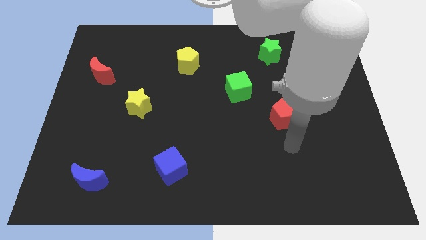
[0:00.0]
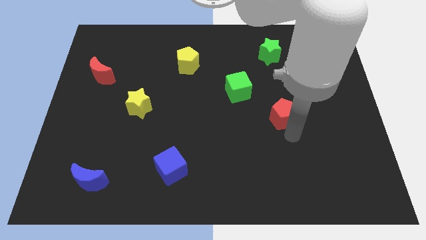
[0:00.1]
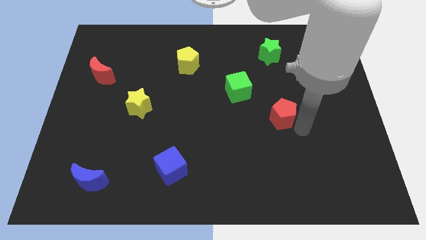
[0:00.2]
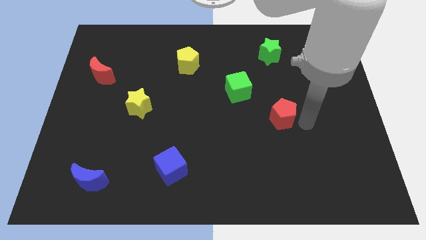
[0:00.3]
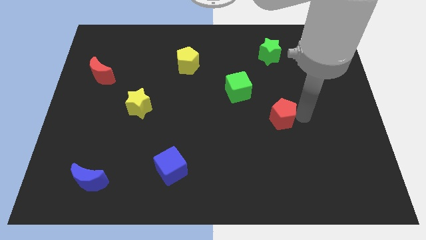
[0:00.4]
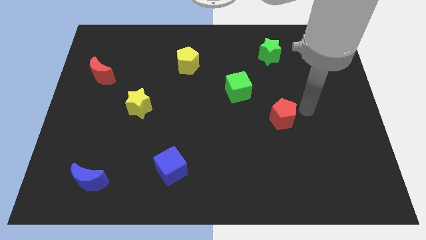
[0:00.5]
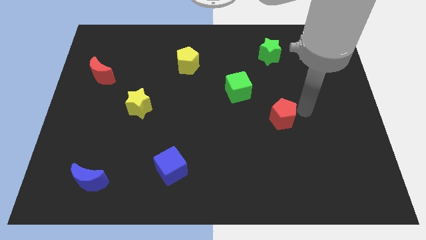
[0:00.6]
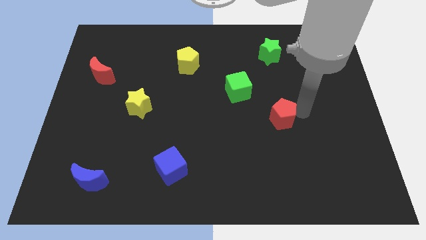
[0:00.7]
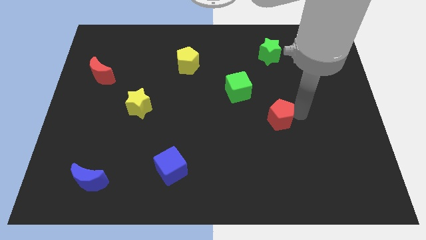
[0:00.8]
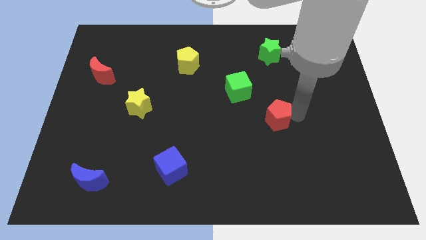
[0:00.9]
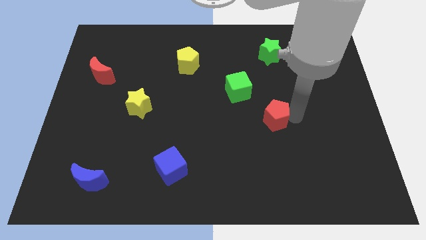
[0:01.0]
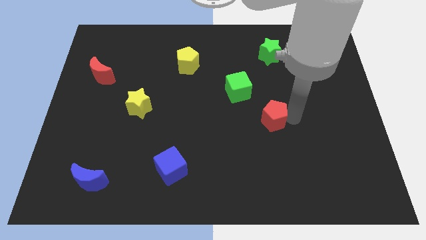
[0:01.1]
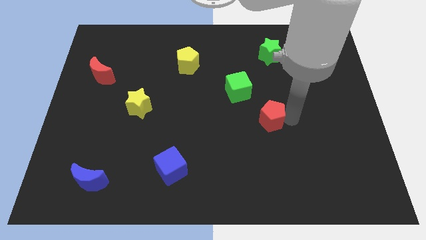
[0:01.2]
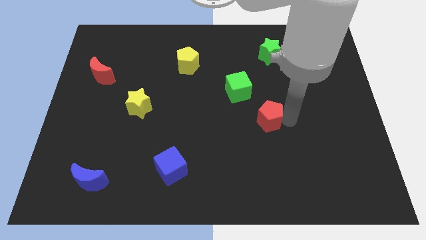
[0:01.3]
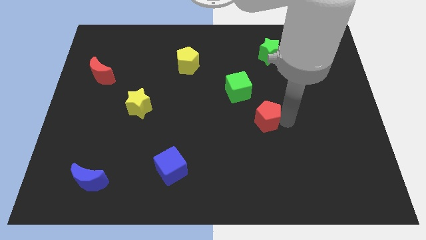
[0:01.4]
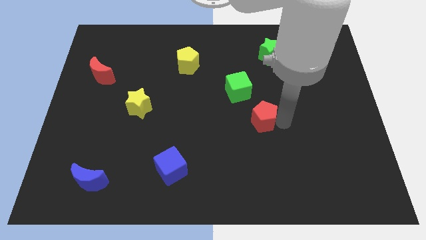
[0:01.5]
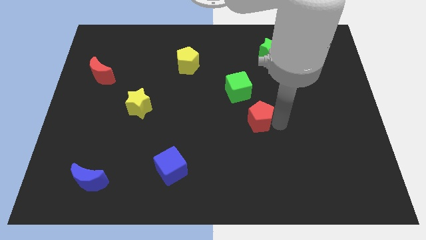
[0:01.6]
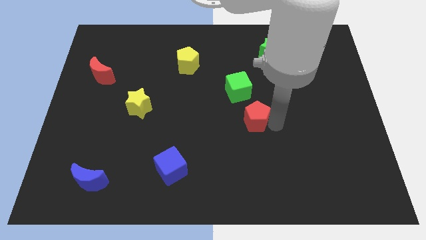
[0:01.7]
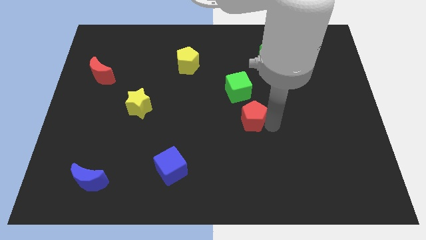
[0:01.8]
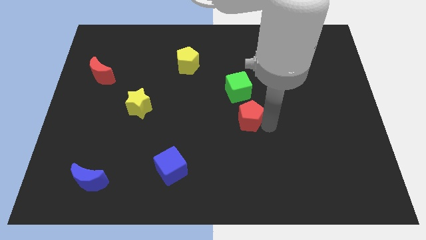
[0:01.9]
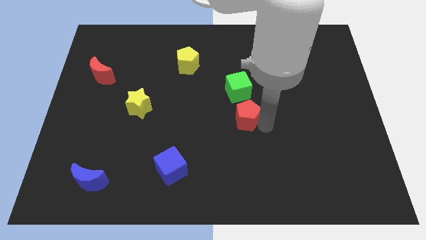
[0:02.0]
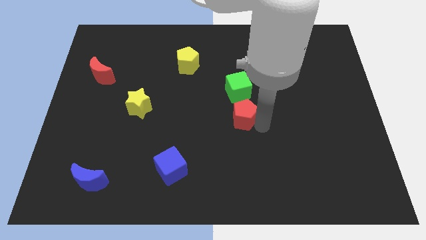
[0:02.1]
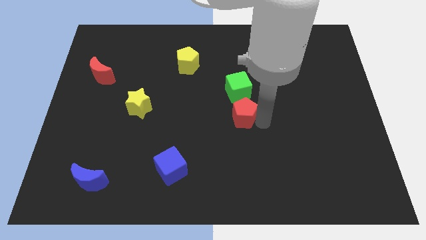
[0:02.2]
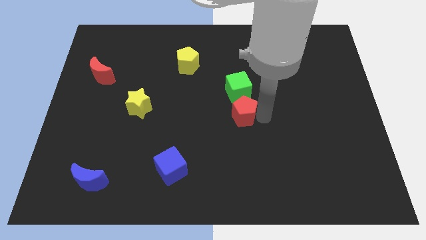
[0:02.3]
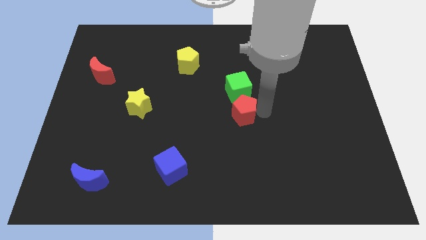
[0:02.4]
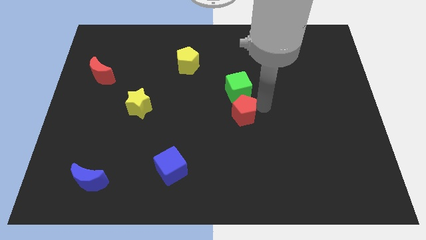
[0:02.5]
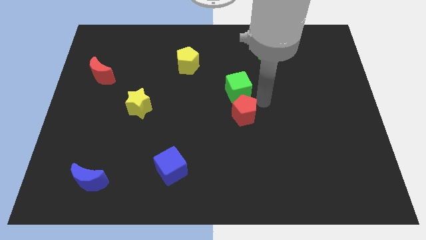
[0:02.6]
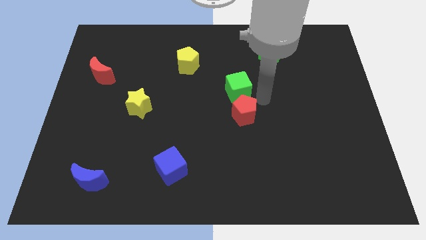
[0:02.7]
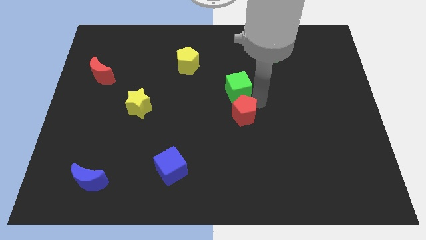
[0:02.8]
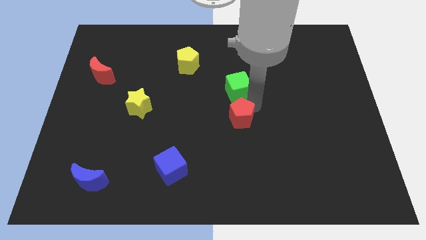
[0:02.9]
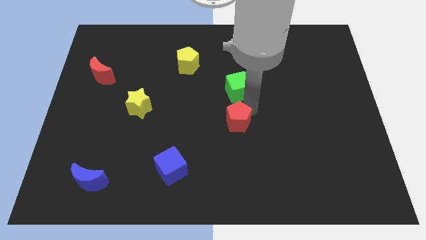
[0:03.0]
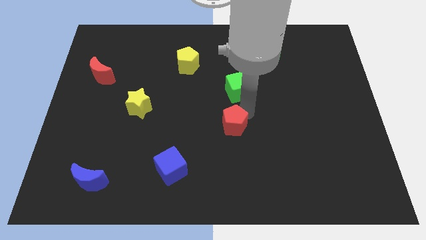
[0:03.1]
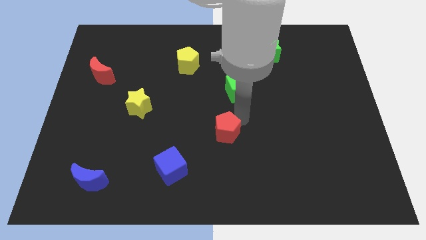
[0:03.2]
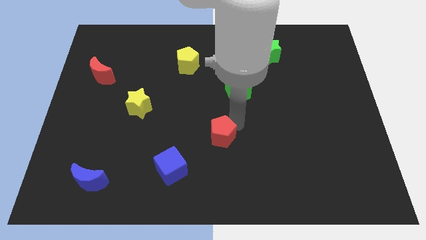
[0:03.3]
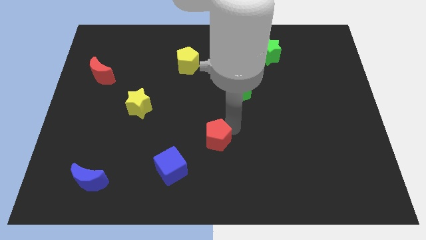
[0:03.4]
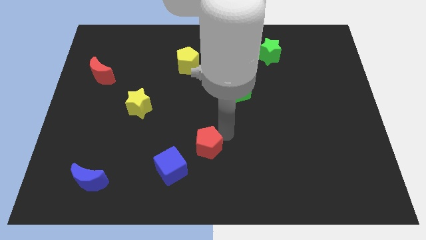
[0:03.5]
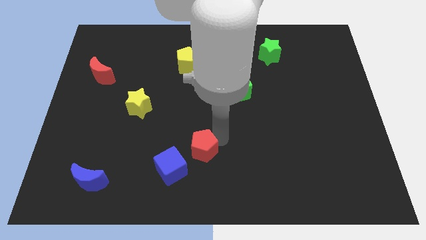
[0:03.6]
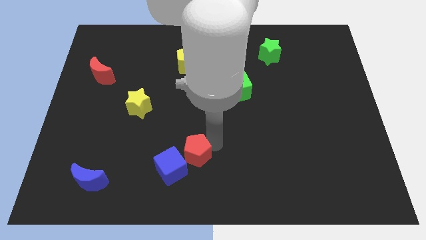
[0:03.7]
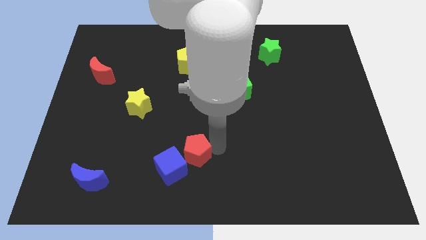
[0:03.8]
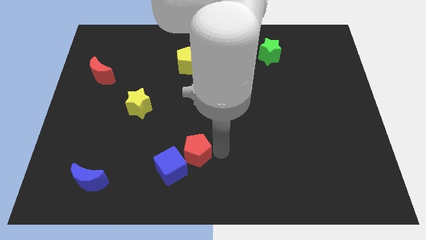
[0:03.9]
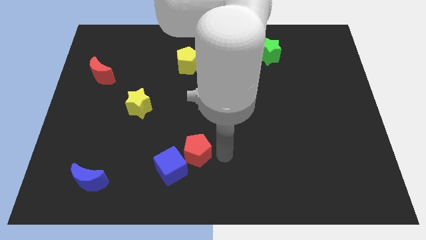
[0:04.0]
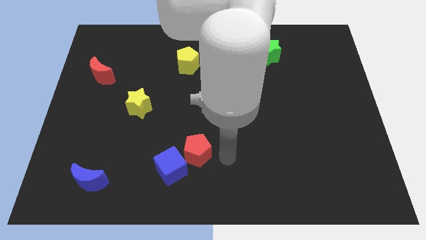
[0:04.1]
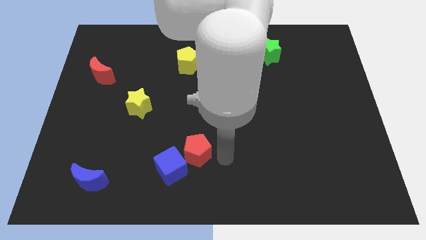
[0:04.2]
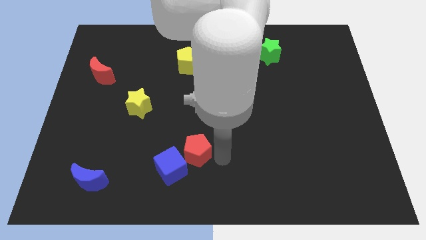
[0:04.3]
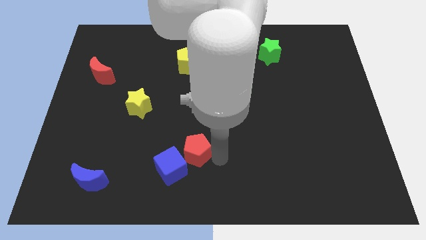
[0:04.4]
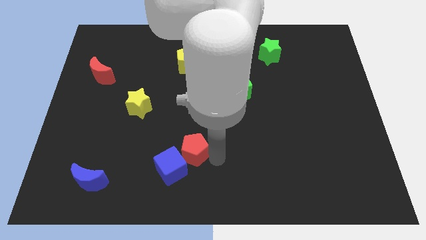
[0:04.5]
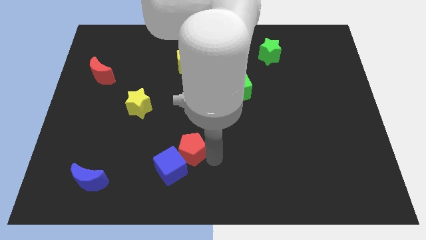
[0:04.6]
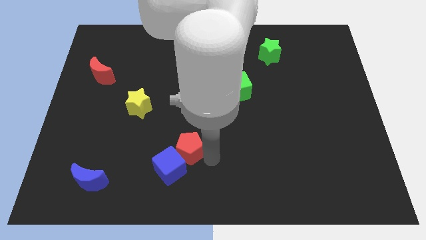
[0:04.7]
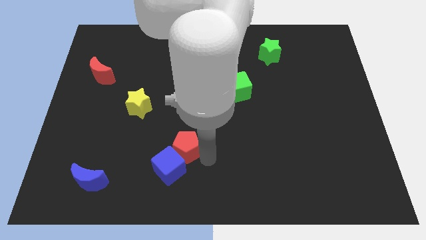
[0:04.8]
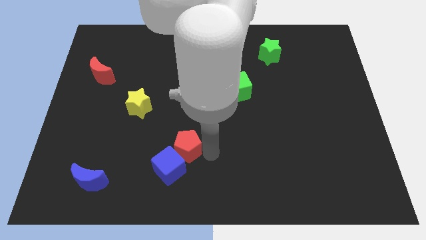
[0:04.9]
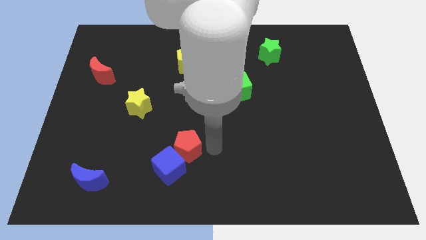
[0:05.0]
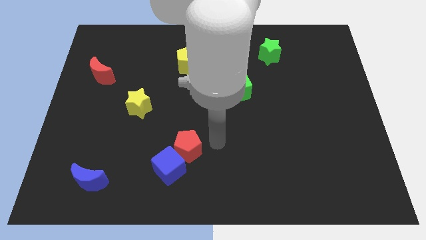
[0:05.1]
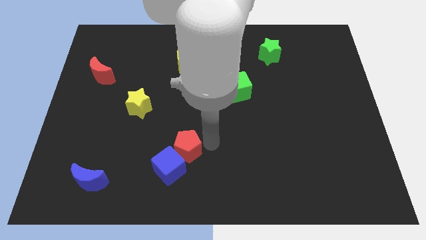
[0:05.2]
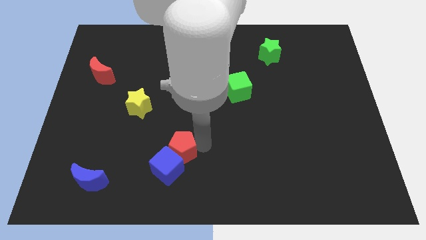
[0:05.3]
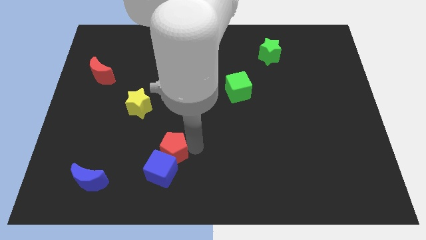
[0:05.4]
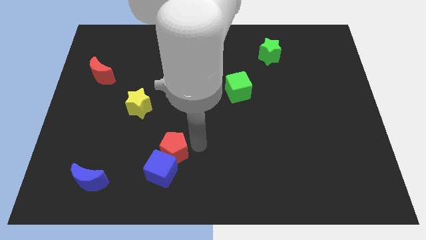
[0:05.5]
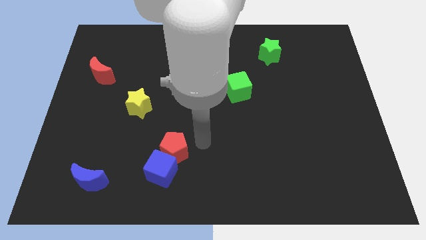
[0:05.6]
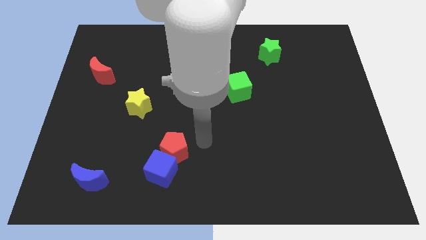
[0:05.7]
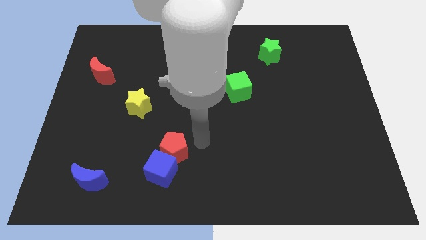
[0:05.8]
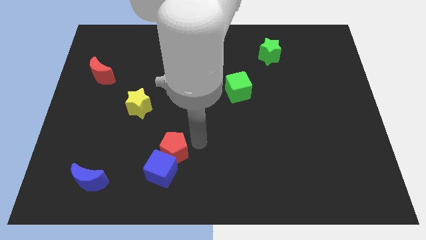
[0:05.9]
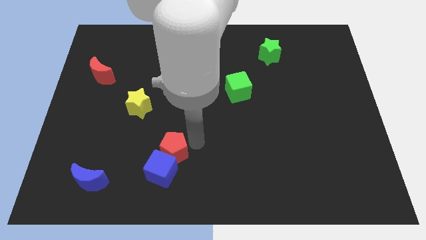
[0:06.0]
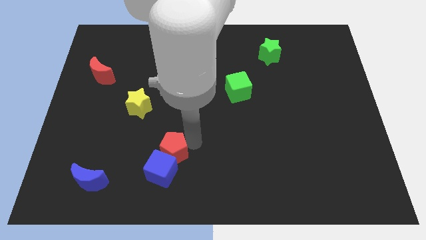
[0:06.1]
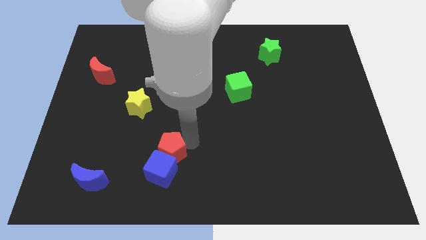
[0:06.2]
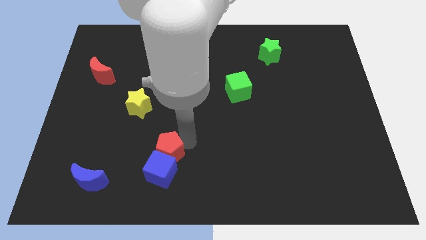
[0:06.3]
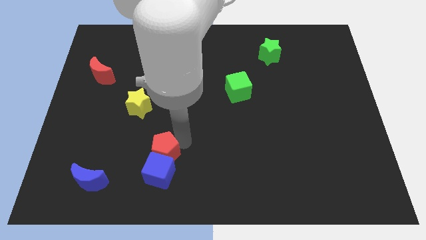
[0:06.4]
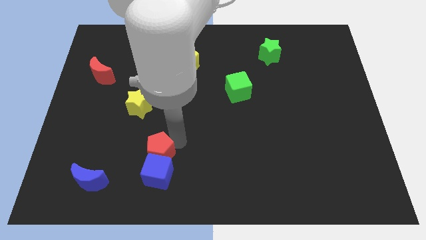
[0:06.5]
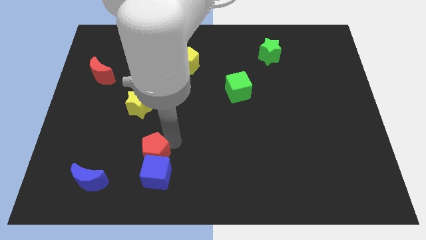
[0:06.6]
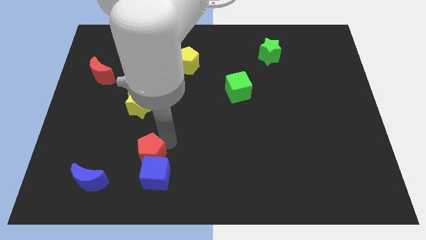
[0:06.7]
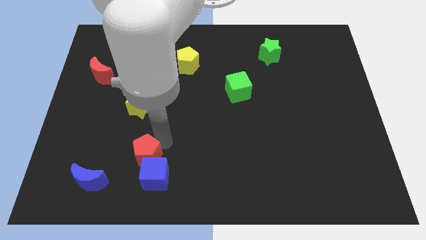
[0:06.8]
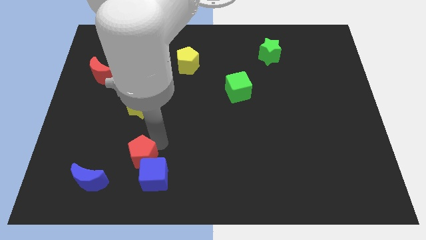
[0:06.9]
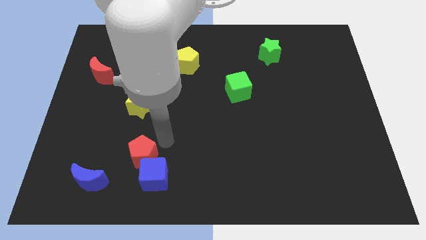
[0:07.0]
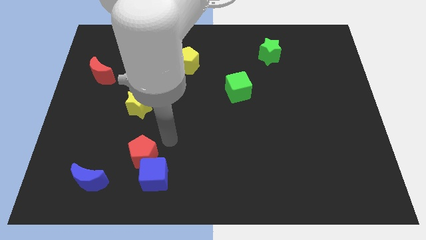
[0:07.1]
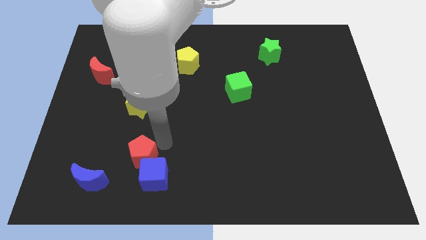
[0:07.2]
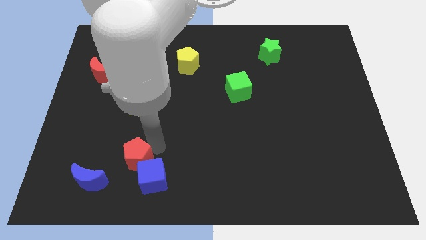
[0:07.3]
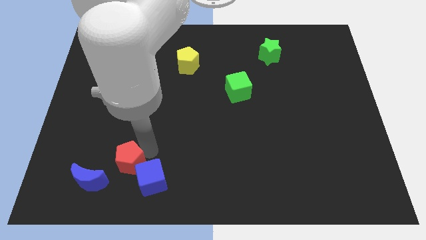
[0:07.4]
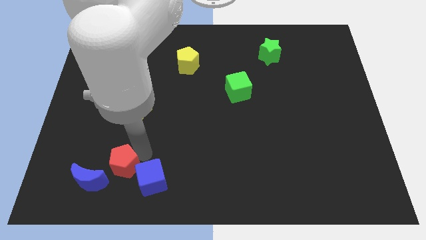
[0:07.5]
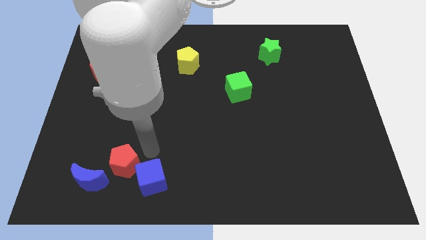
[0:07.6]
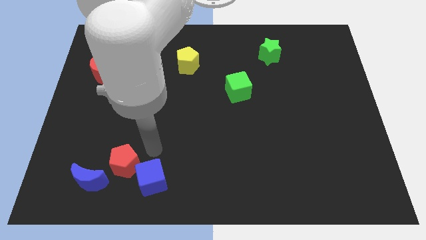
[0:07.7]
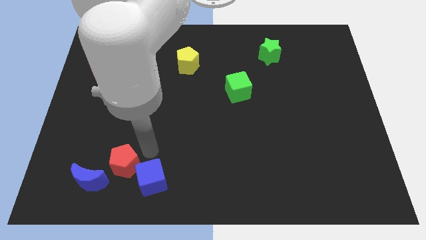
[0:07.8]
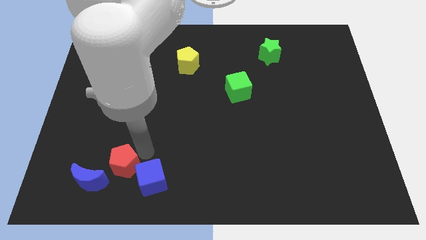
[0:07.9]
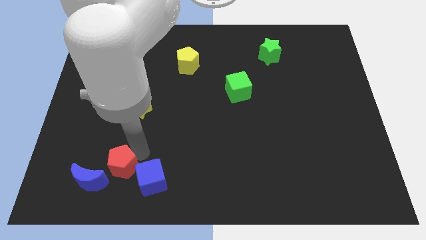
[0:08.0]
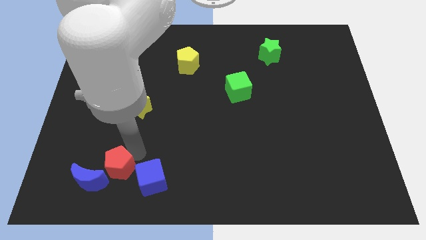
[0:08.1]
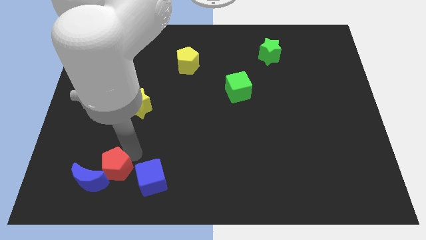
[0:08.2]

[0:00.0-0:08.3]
push the red pentagon close to the blue moon

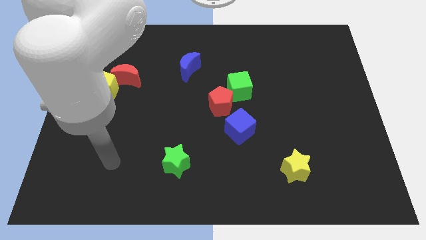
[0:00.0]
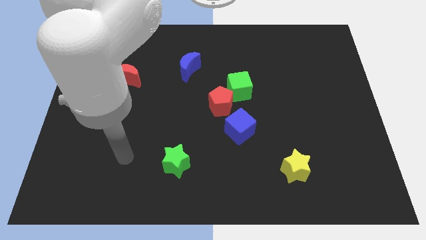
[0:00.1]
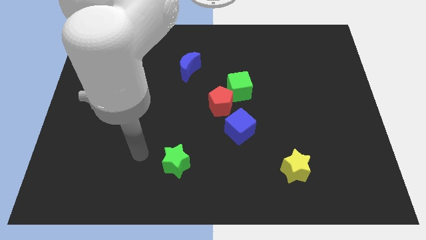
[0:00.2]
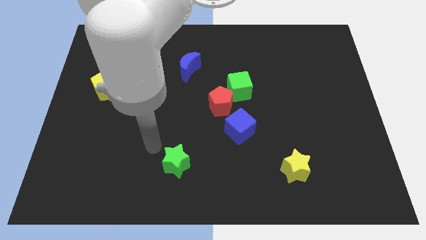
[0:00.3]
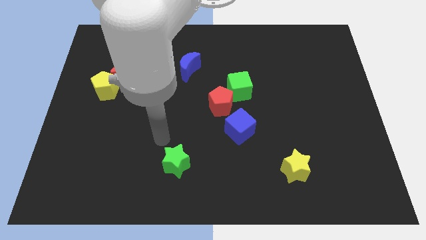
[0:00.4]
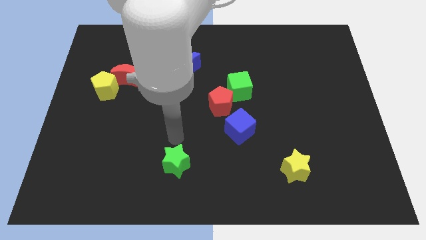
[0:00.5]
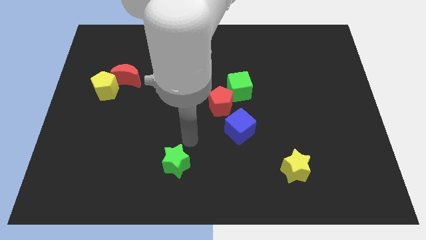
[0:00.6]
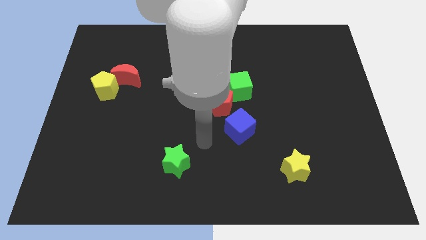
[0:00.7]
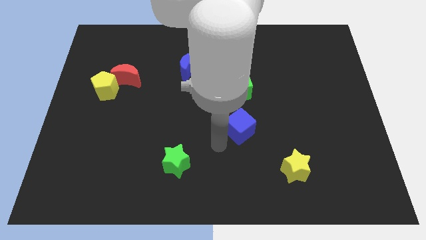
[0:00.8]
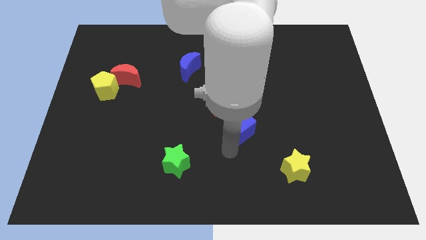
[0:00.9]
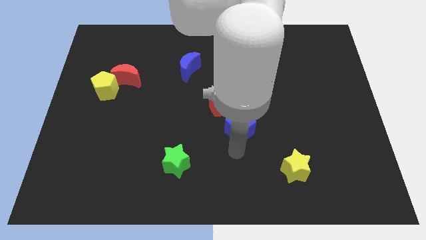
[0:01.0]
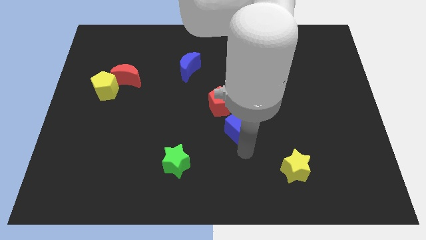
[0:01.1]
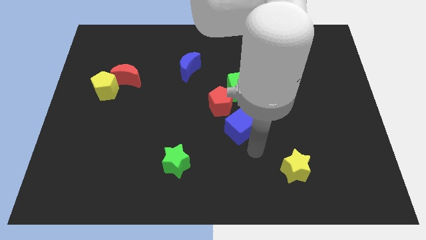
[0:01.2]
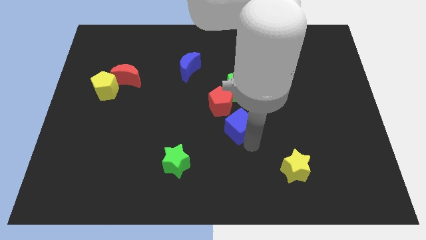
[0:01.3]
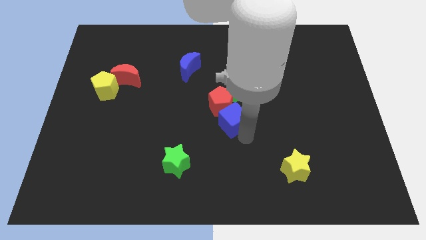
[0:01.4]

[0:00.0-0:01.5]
move the blue cube next to the red pentagon
